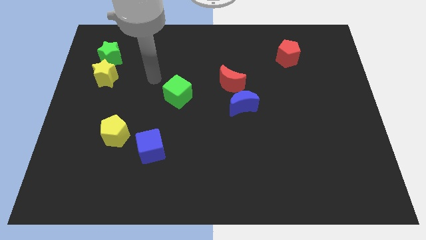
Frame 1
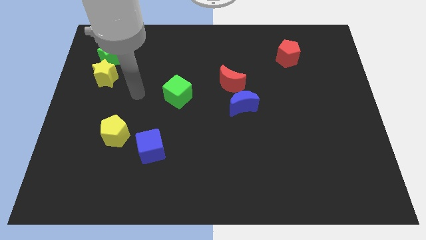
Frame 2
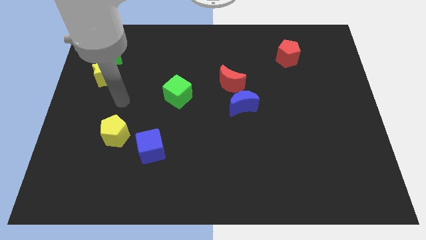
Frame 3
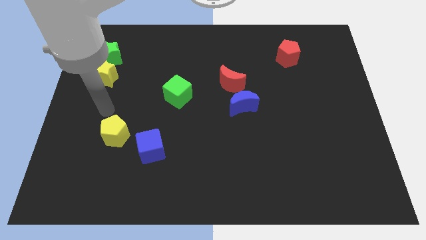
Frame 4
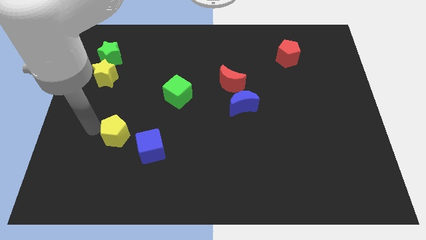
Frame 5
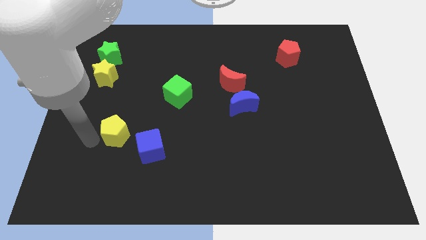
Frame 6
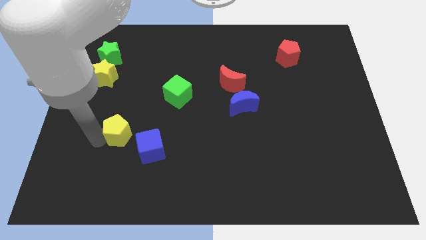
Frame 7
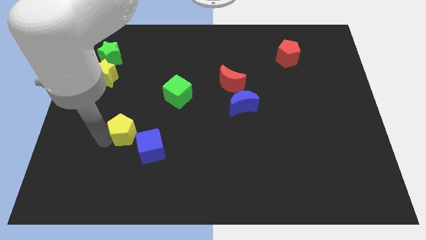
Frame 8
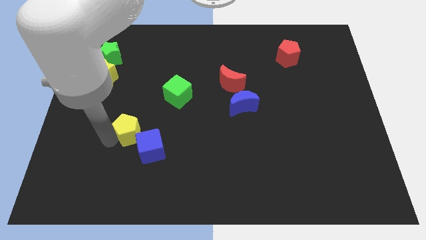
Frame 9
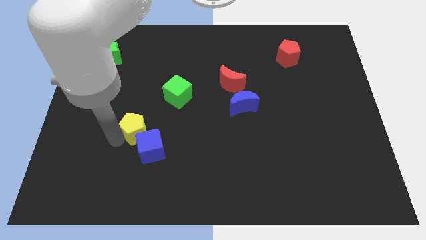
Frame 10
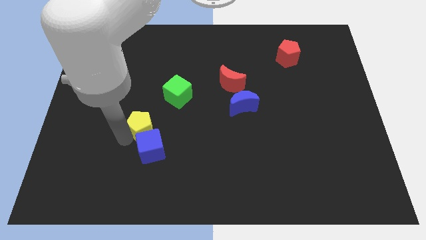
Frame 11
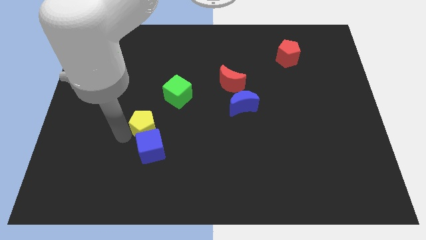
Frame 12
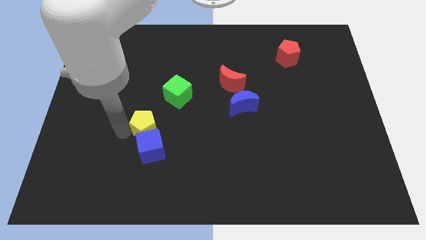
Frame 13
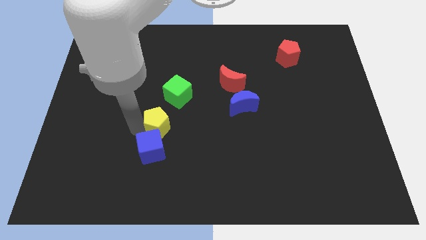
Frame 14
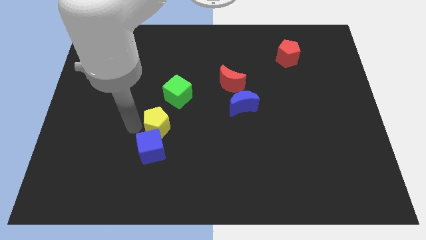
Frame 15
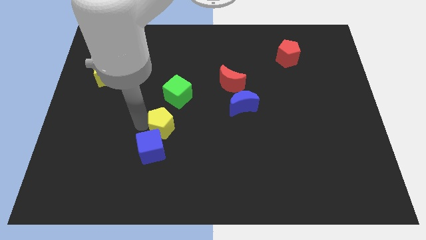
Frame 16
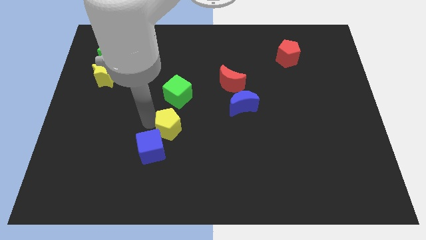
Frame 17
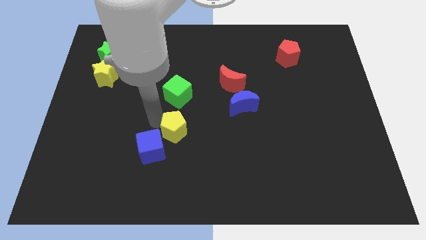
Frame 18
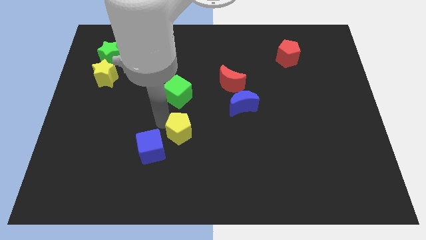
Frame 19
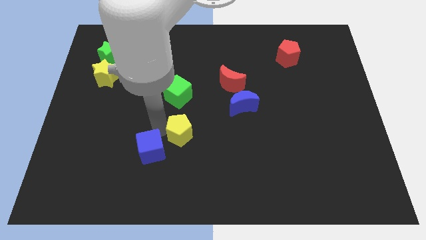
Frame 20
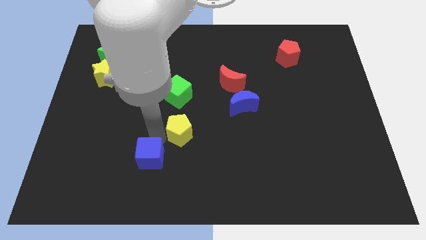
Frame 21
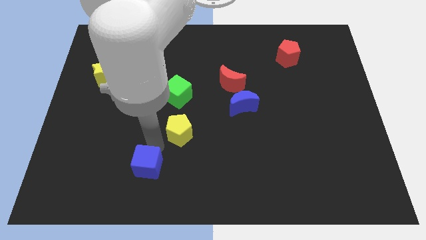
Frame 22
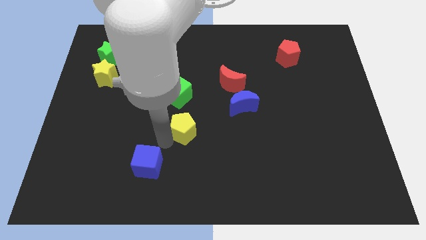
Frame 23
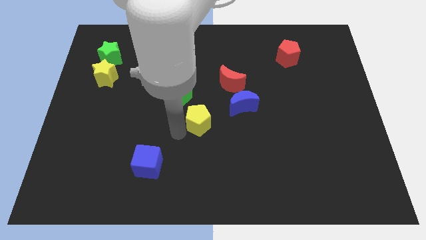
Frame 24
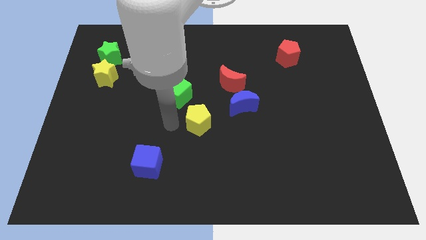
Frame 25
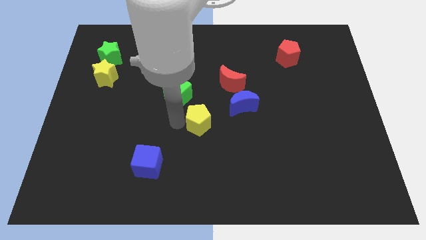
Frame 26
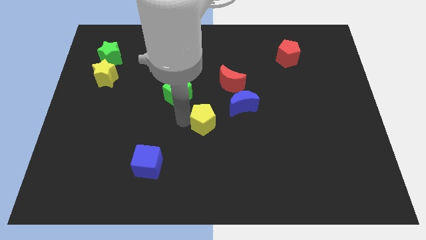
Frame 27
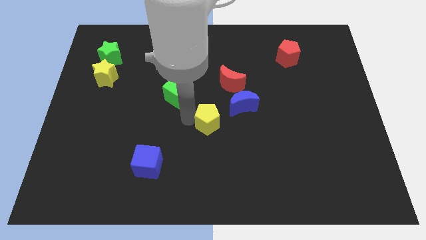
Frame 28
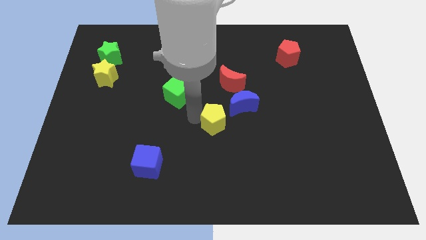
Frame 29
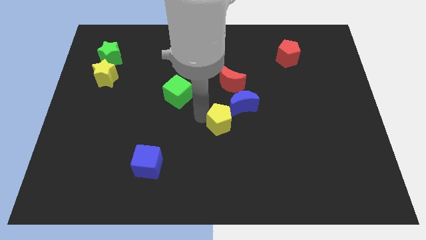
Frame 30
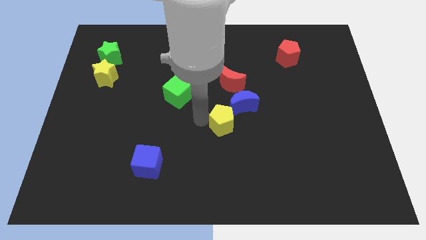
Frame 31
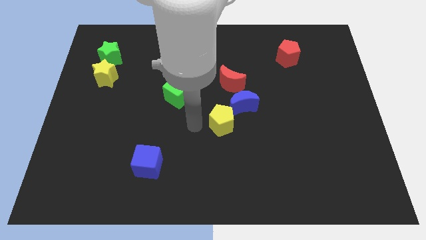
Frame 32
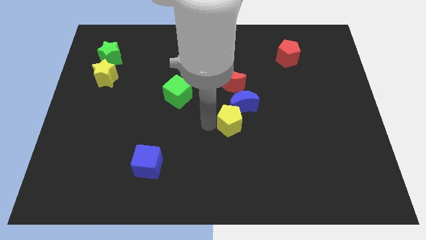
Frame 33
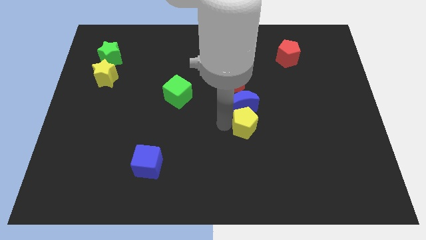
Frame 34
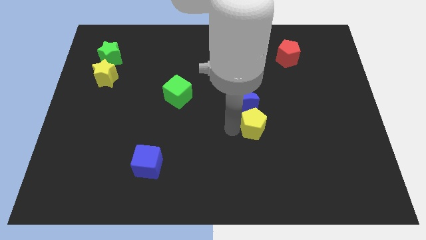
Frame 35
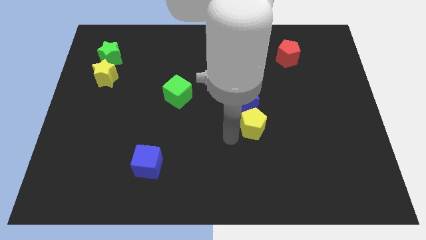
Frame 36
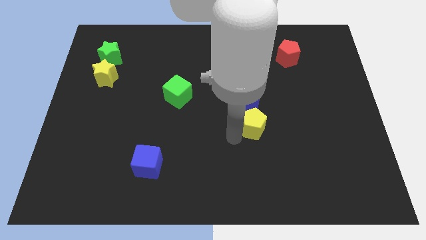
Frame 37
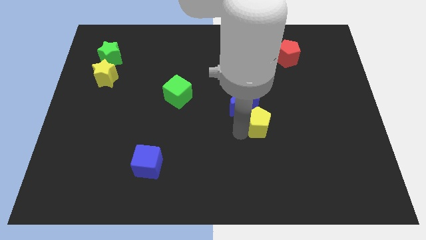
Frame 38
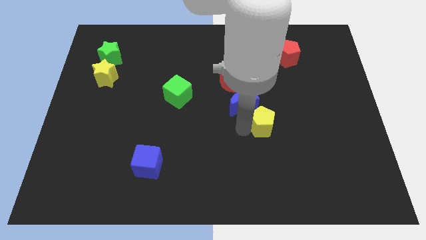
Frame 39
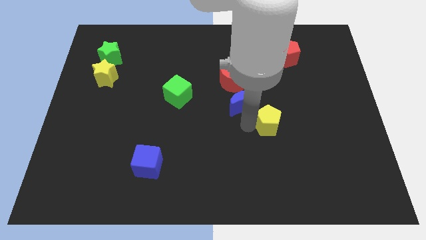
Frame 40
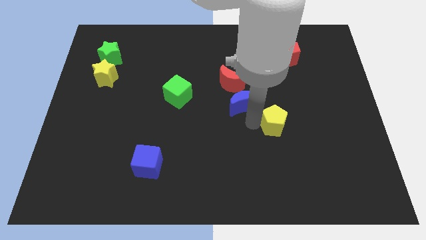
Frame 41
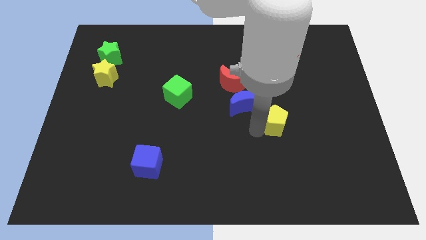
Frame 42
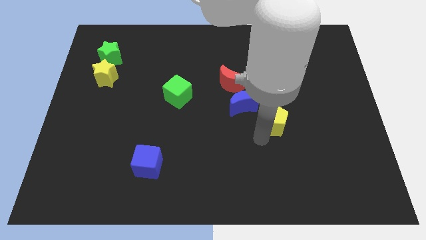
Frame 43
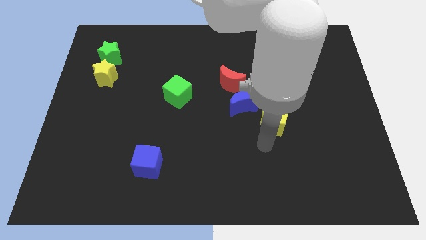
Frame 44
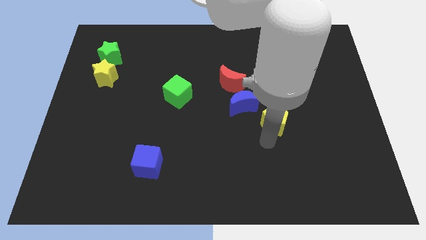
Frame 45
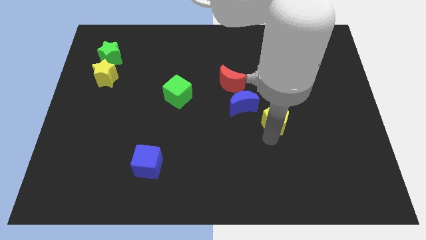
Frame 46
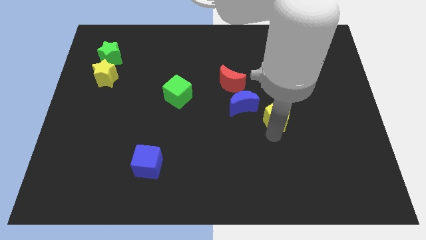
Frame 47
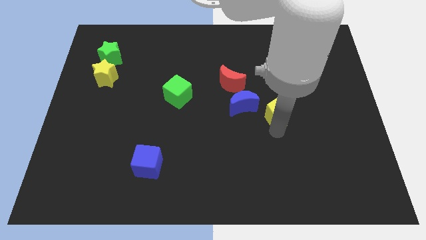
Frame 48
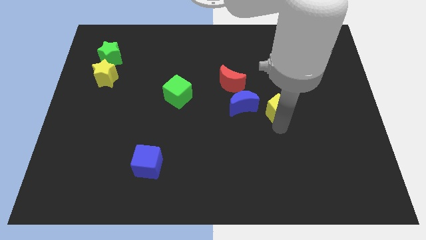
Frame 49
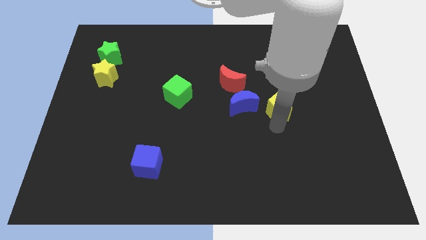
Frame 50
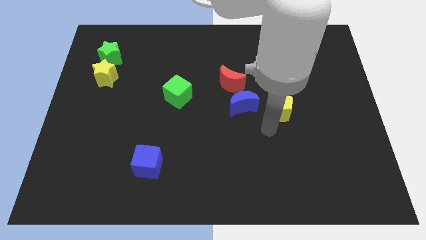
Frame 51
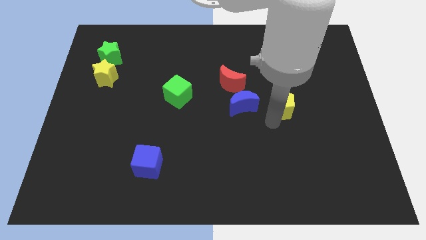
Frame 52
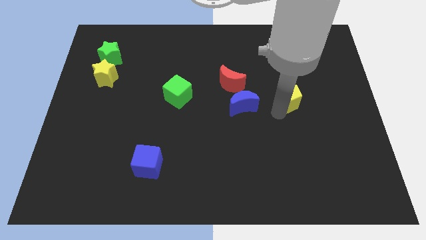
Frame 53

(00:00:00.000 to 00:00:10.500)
put the yellow pentagon below the red pentagon

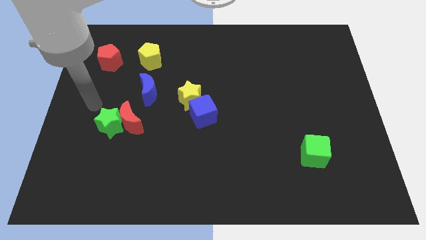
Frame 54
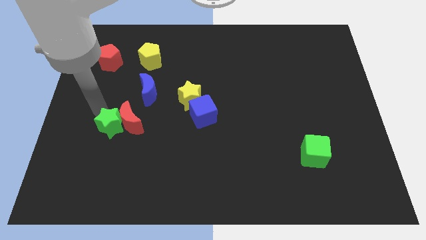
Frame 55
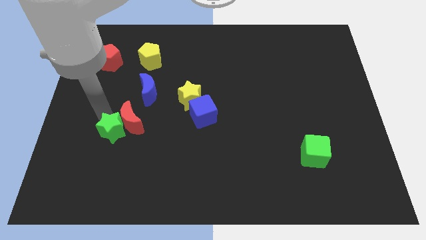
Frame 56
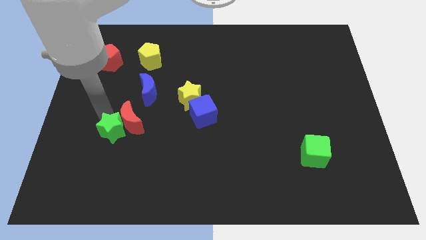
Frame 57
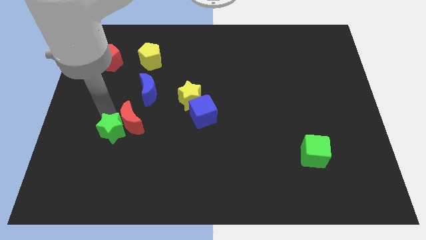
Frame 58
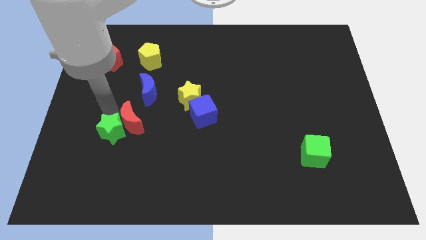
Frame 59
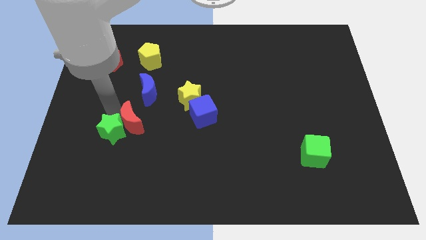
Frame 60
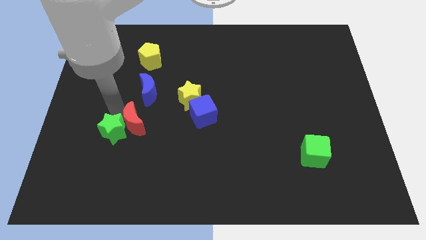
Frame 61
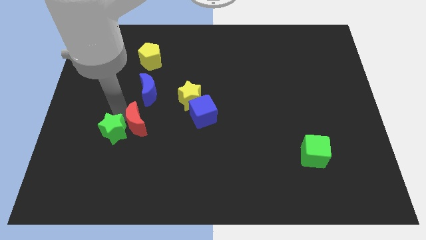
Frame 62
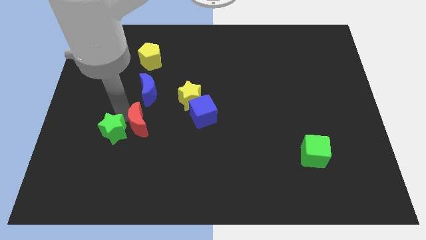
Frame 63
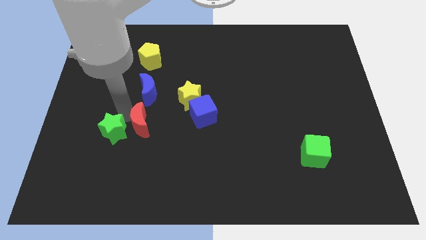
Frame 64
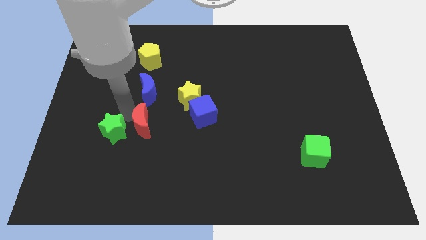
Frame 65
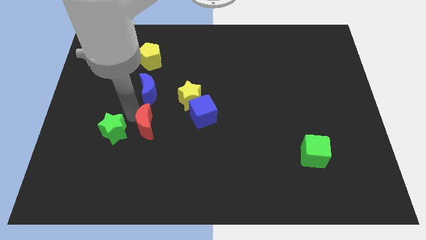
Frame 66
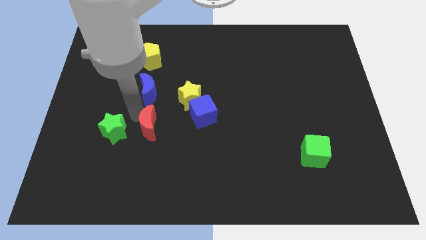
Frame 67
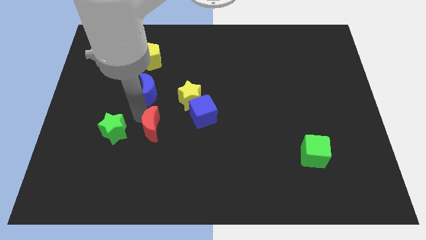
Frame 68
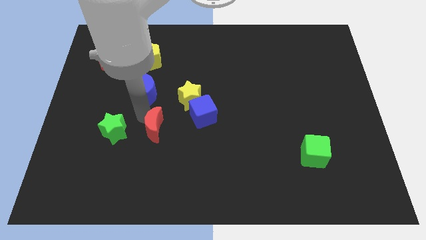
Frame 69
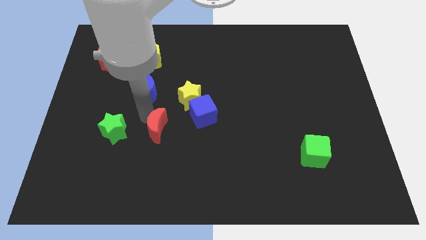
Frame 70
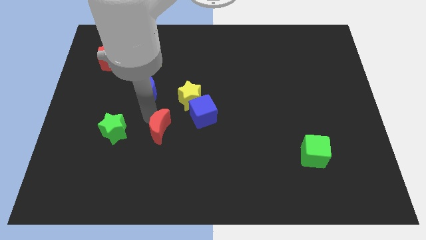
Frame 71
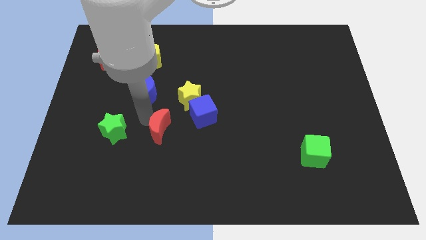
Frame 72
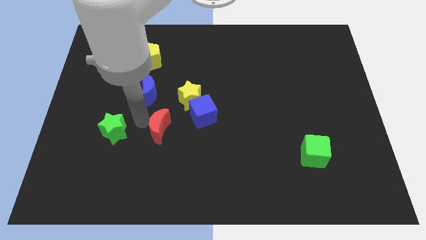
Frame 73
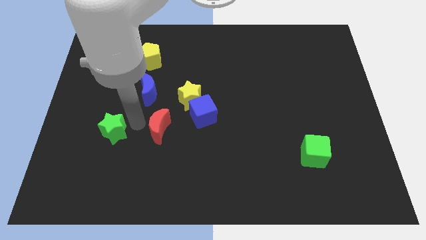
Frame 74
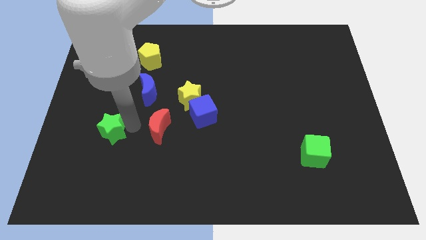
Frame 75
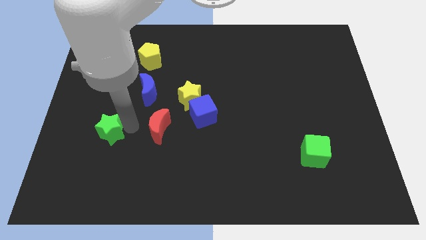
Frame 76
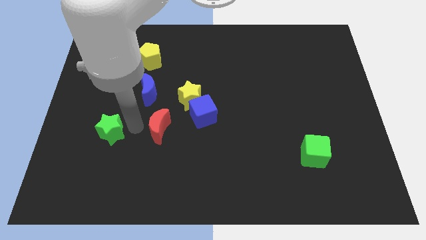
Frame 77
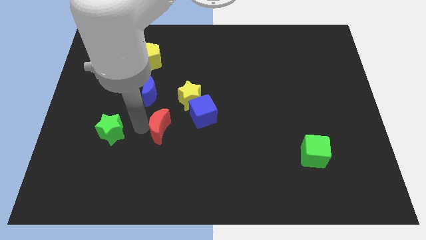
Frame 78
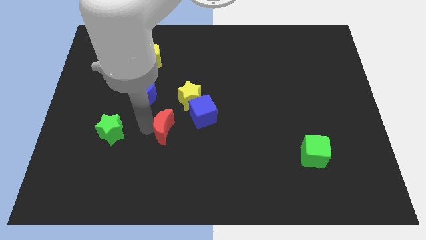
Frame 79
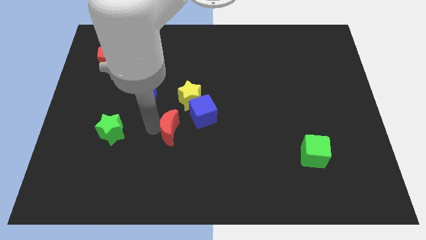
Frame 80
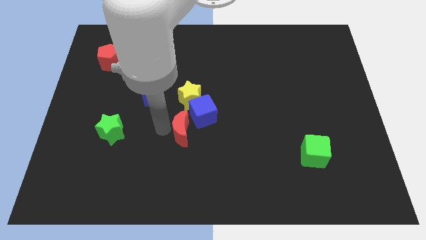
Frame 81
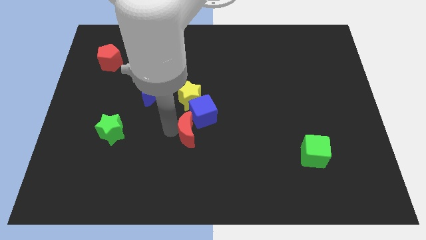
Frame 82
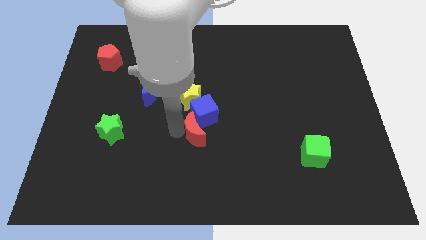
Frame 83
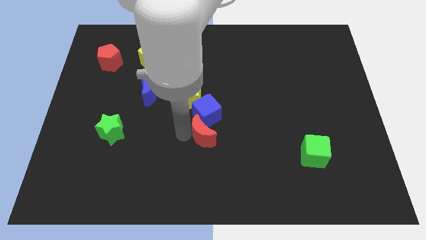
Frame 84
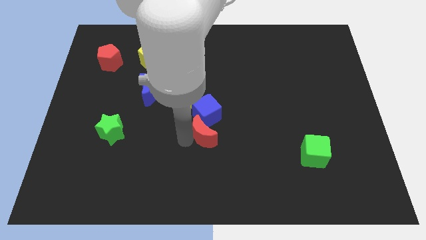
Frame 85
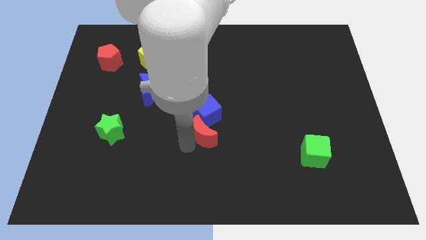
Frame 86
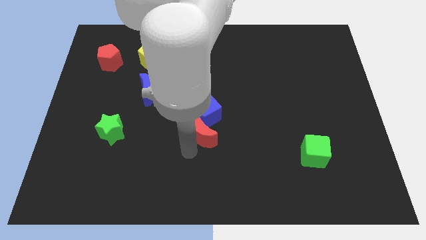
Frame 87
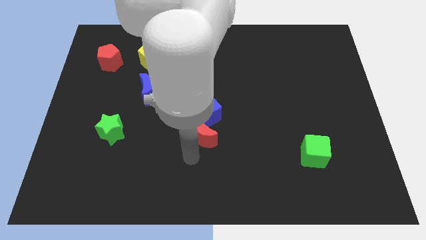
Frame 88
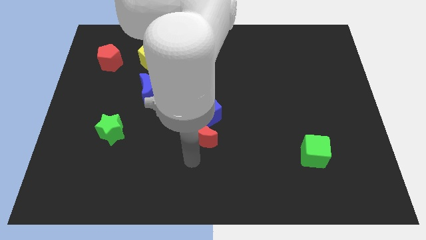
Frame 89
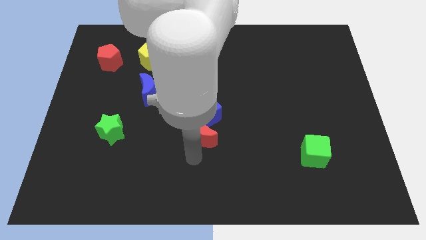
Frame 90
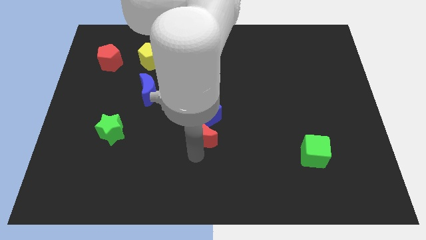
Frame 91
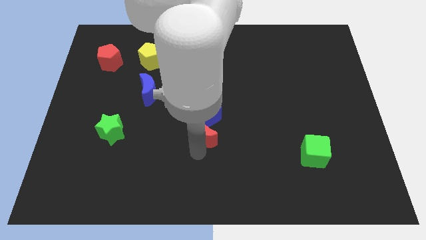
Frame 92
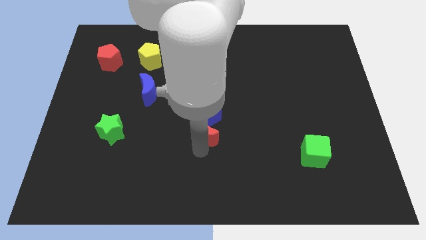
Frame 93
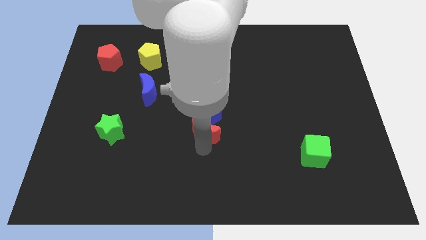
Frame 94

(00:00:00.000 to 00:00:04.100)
slide the red moon to the bottom right of the yellow star
